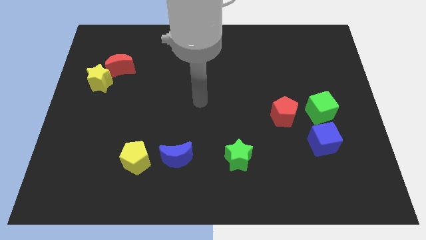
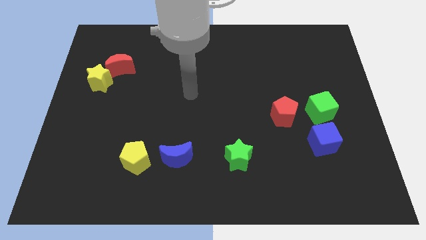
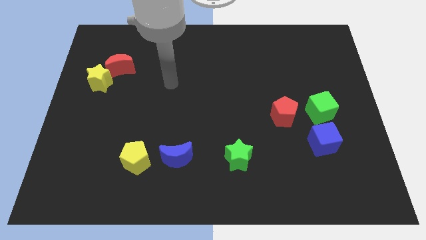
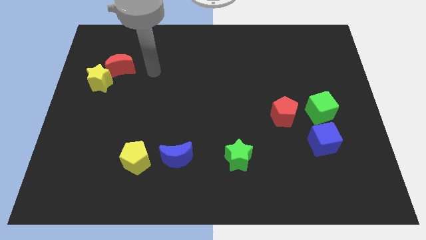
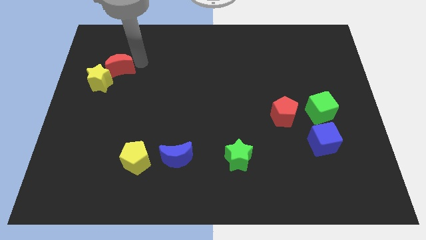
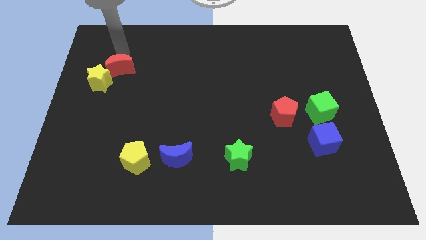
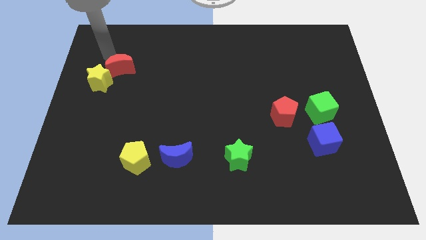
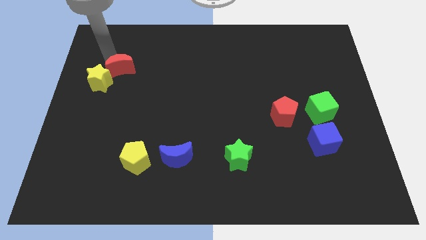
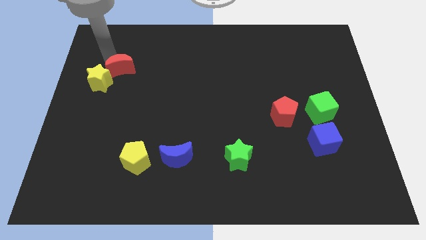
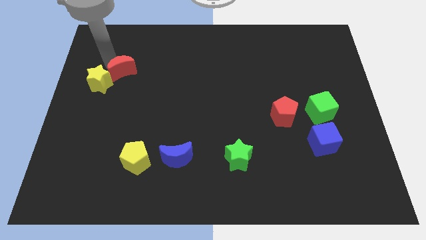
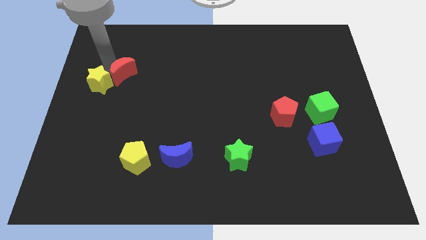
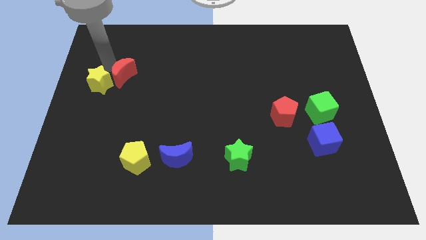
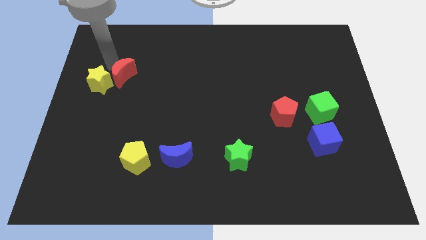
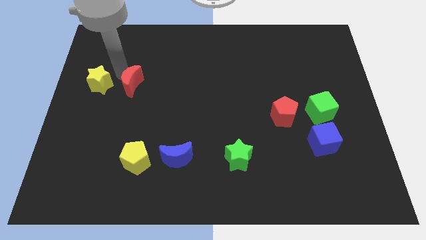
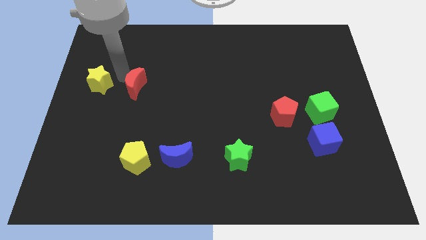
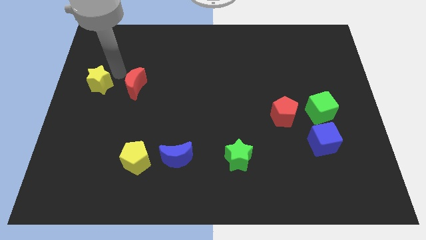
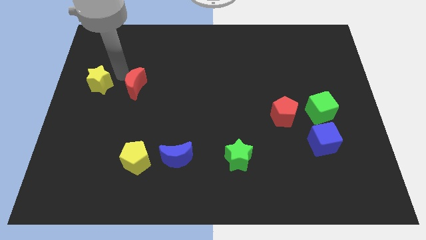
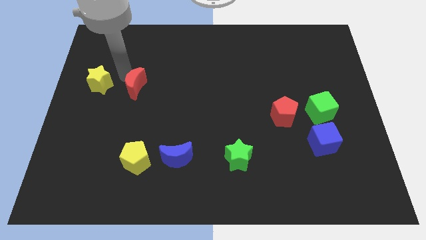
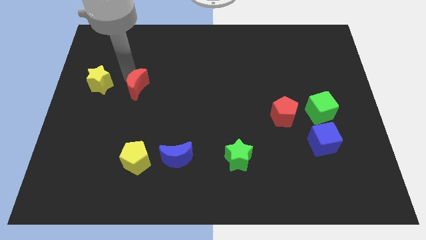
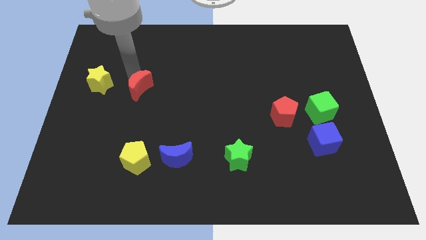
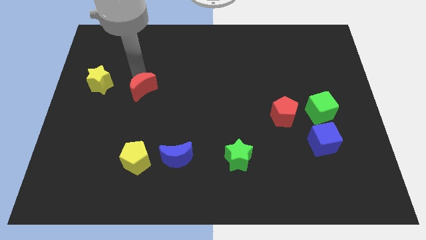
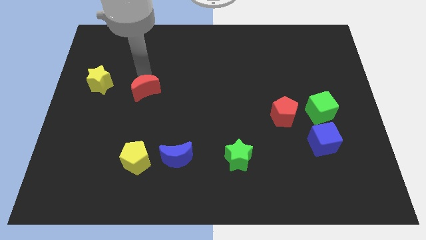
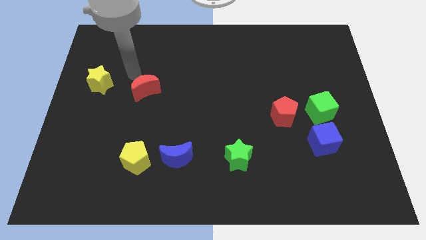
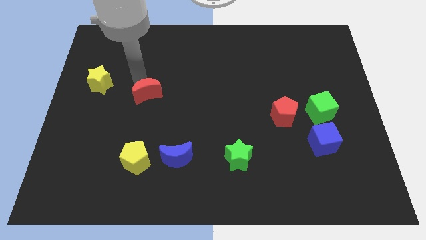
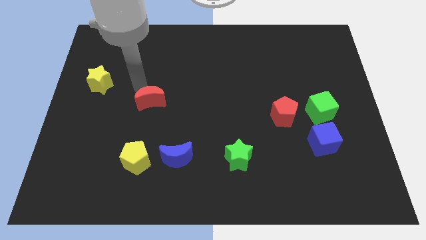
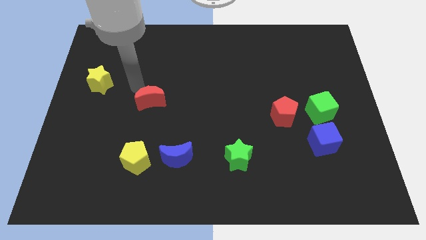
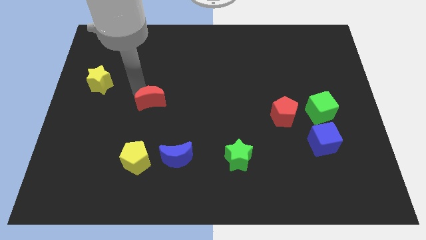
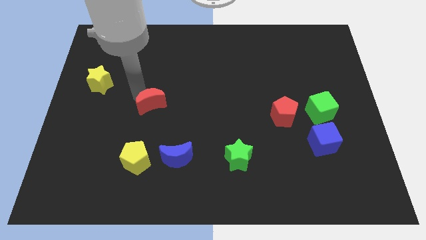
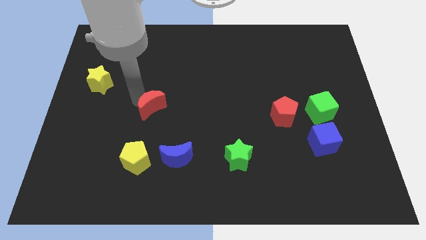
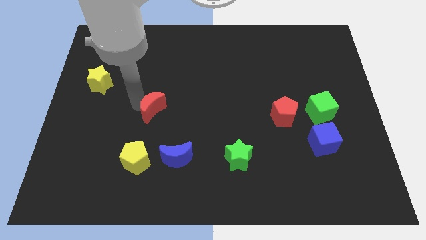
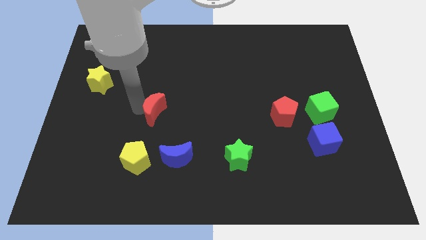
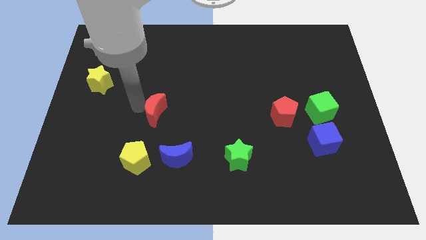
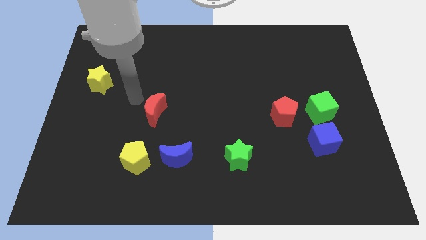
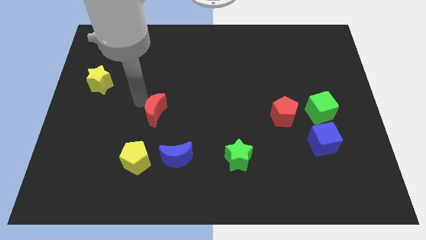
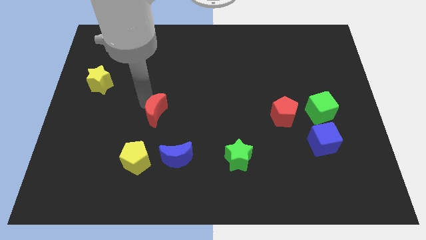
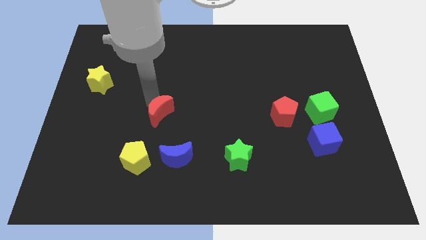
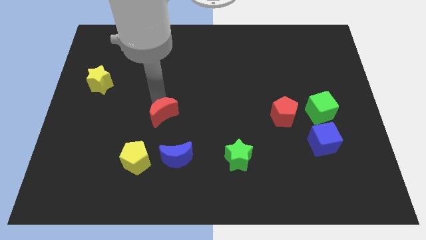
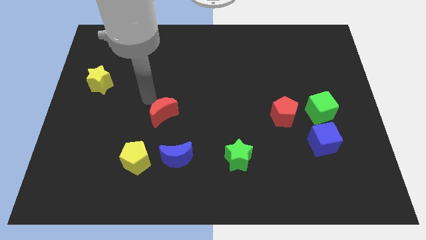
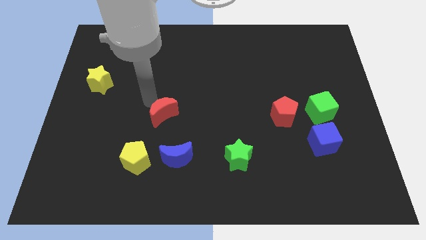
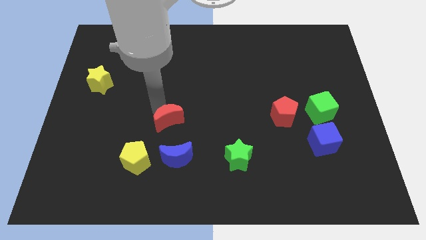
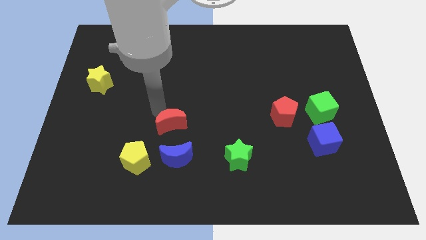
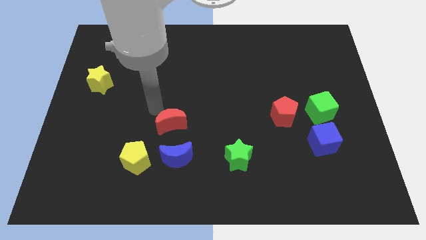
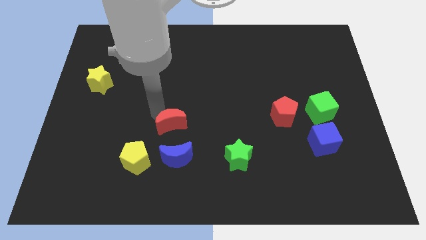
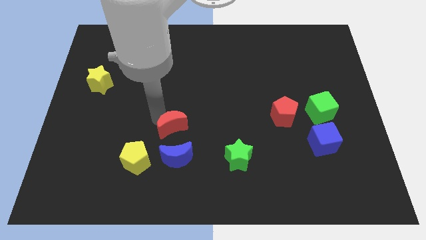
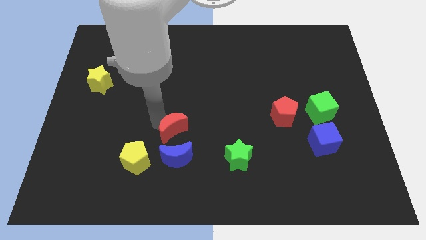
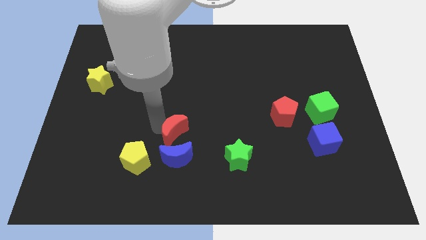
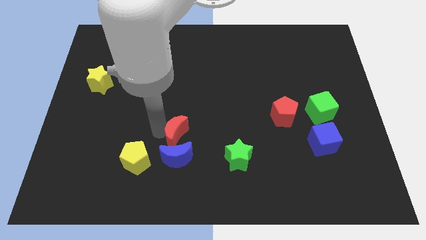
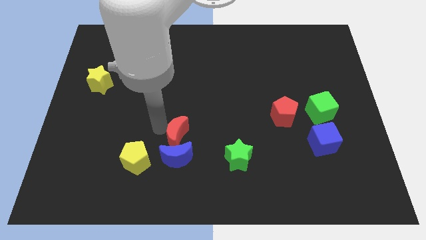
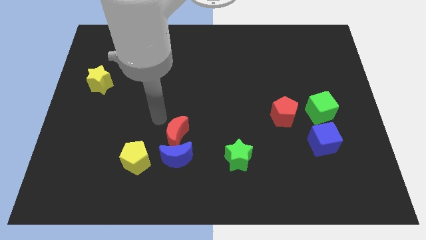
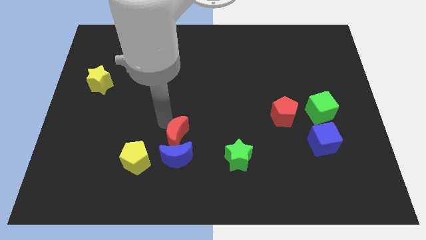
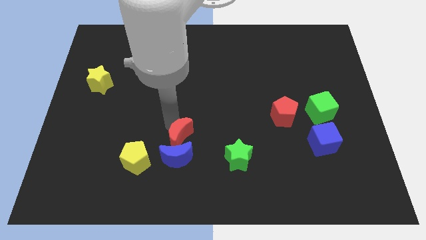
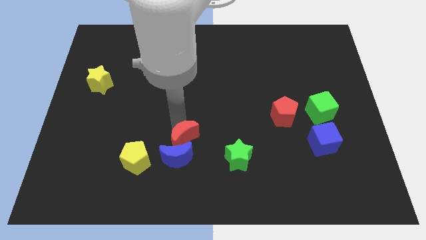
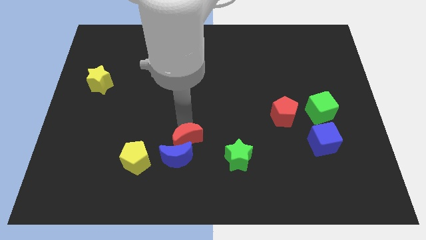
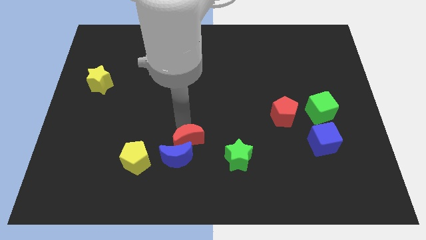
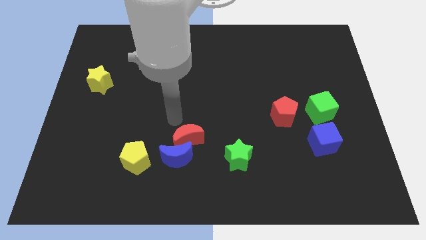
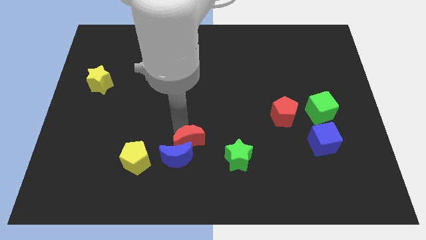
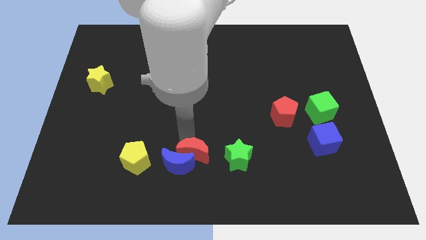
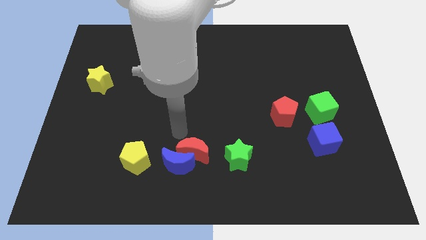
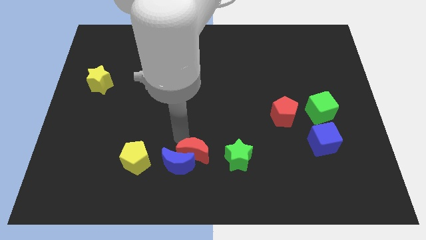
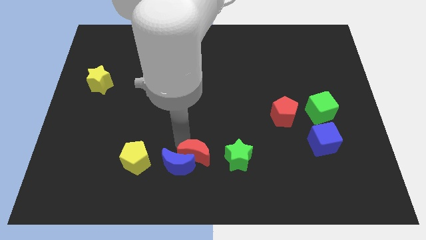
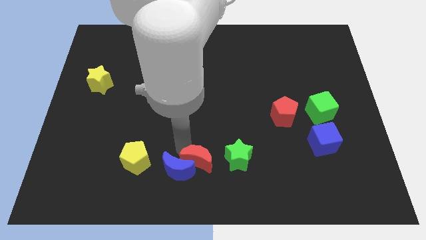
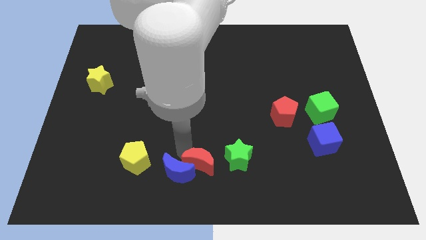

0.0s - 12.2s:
slide the red moon to the bottom left side of the green star
